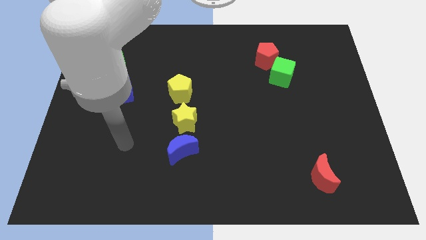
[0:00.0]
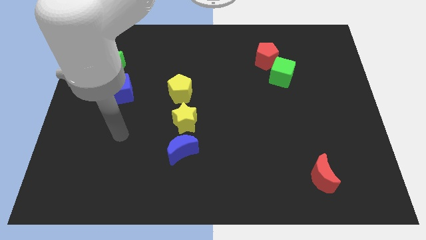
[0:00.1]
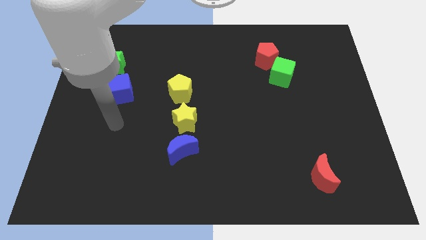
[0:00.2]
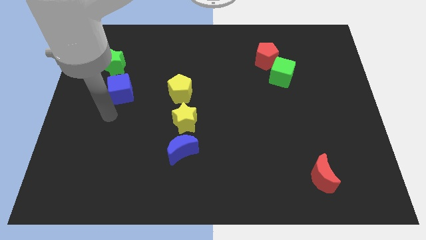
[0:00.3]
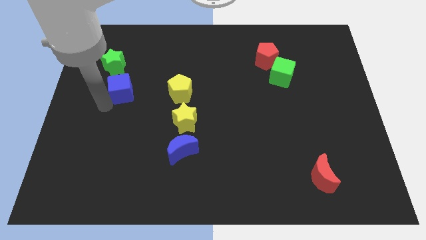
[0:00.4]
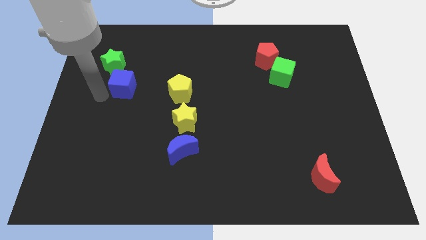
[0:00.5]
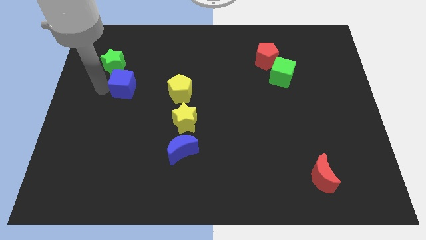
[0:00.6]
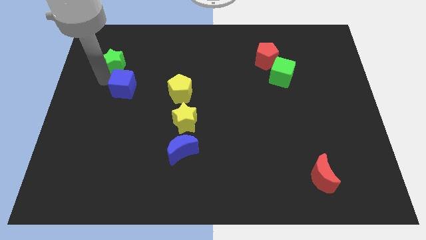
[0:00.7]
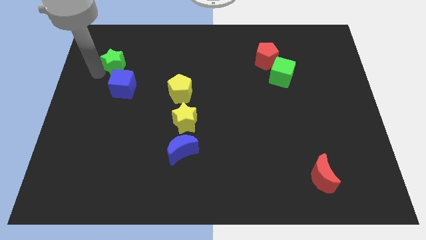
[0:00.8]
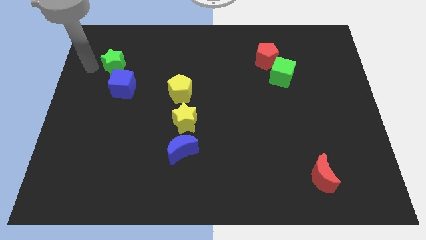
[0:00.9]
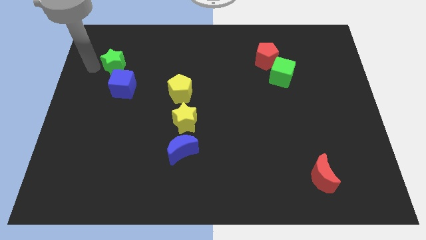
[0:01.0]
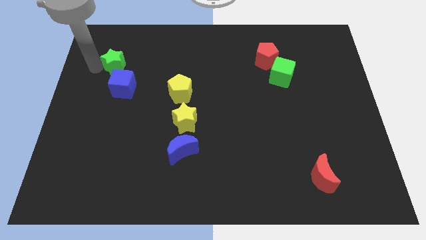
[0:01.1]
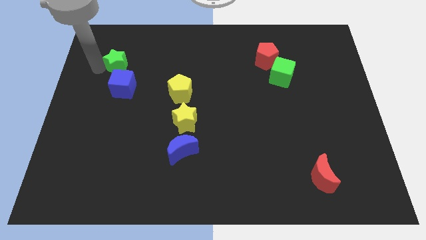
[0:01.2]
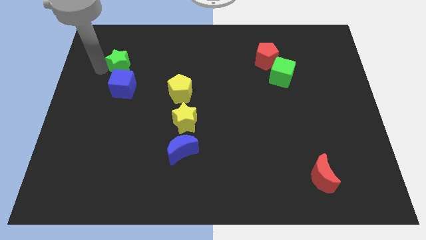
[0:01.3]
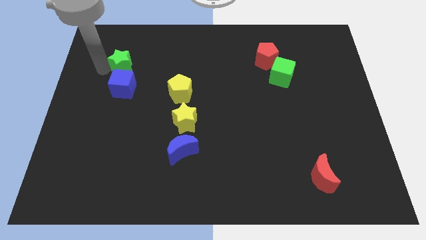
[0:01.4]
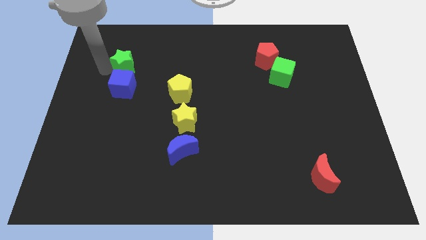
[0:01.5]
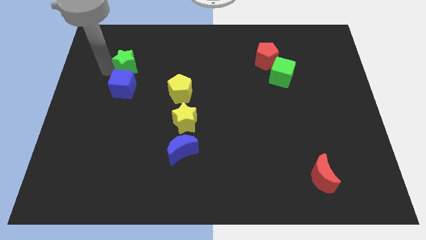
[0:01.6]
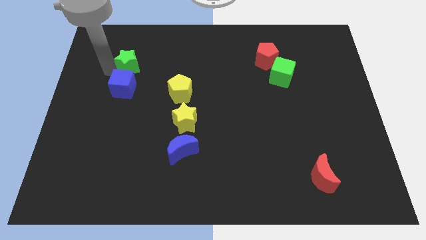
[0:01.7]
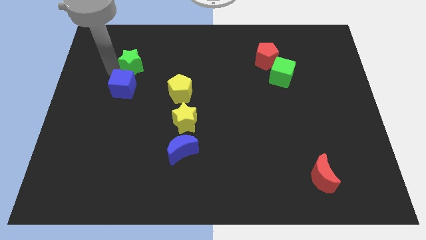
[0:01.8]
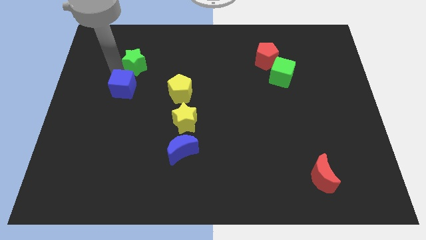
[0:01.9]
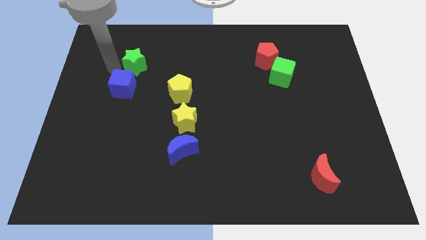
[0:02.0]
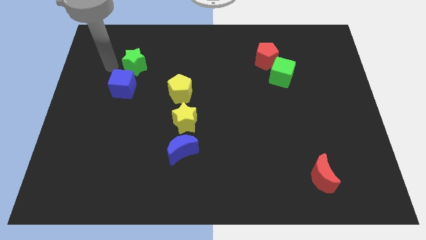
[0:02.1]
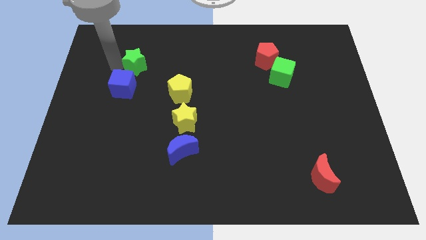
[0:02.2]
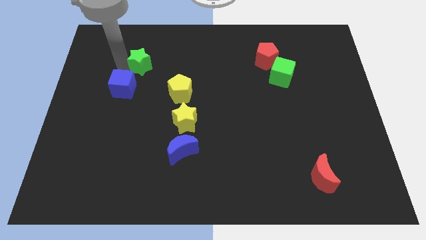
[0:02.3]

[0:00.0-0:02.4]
slide the green star to the right slightly

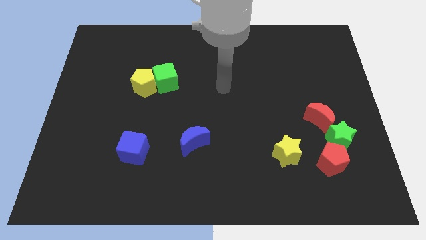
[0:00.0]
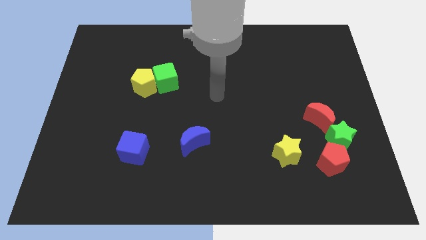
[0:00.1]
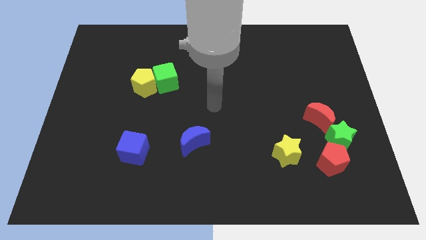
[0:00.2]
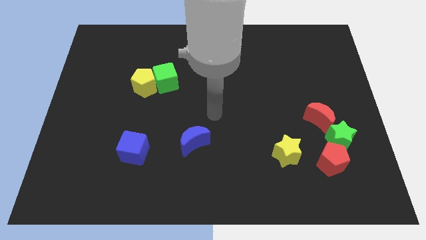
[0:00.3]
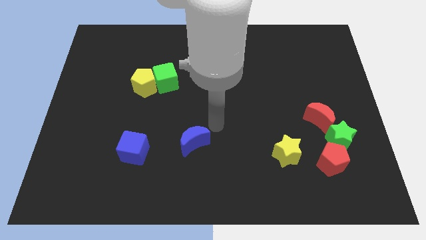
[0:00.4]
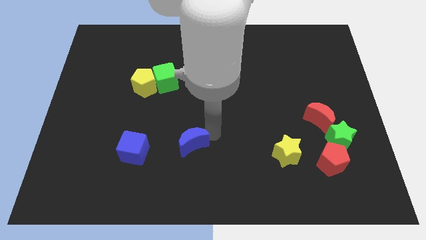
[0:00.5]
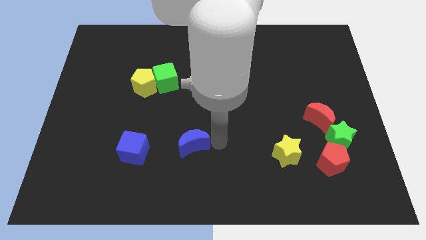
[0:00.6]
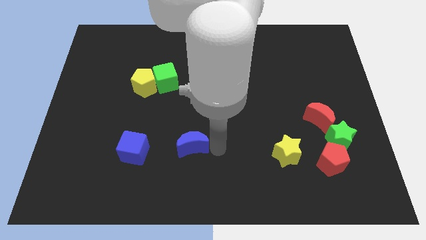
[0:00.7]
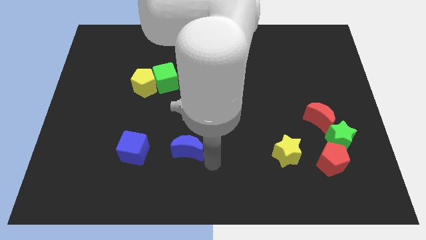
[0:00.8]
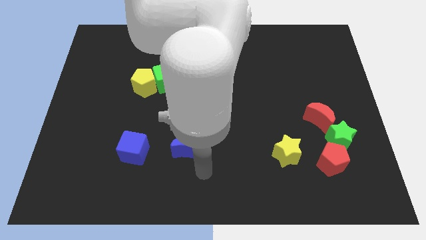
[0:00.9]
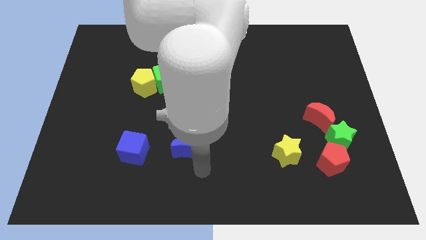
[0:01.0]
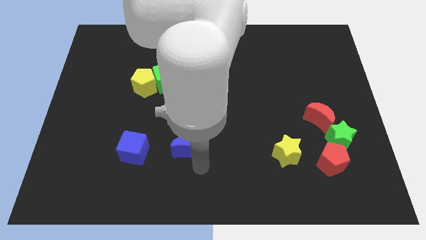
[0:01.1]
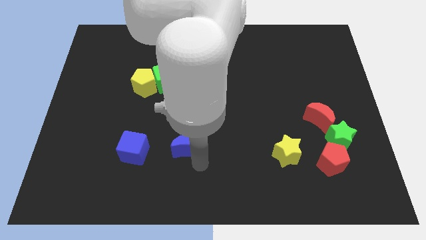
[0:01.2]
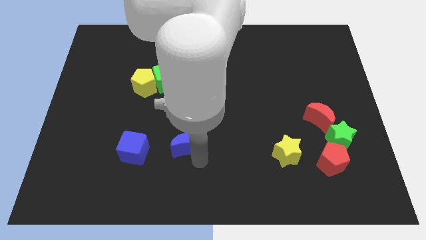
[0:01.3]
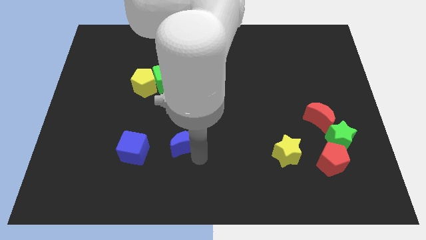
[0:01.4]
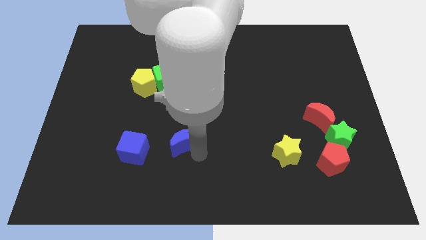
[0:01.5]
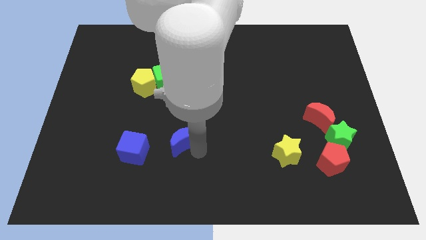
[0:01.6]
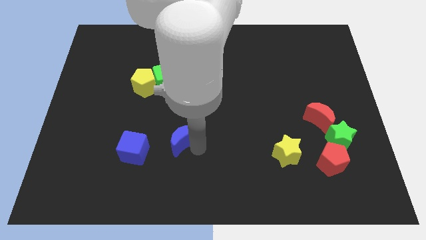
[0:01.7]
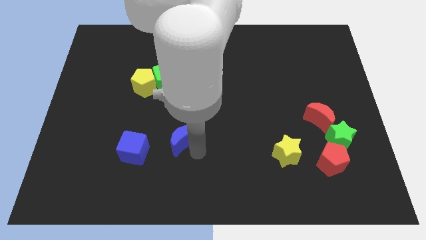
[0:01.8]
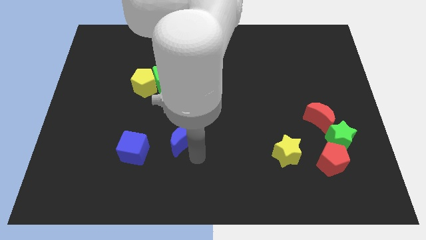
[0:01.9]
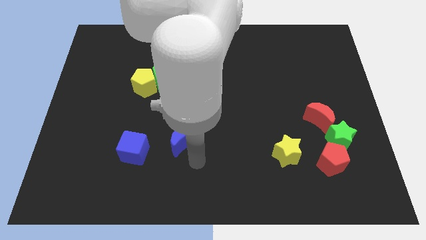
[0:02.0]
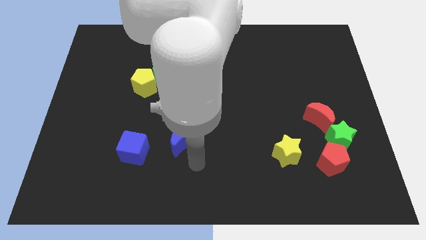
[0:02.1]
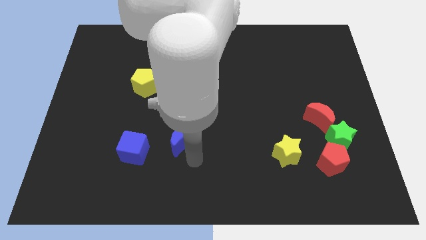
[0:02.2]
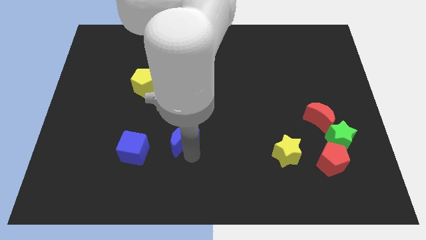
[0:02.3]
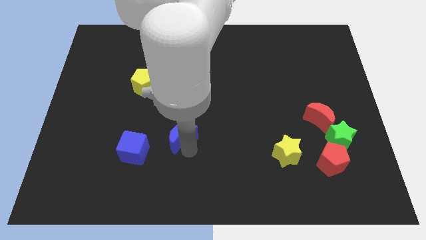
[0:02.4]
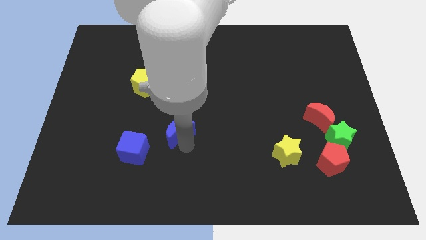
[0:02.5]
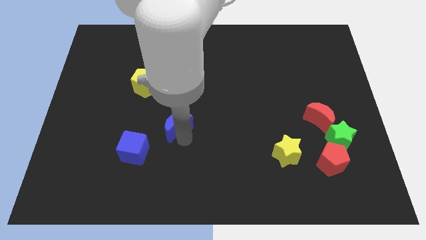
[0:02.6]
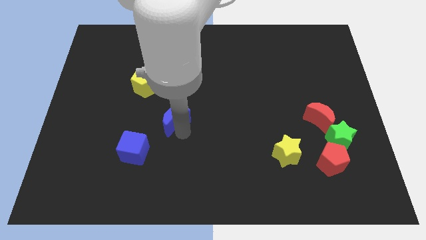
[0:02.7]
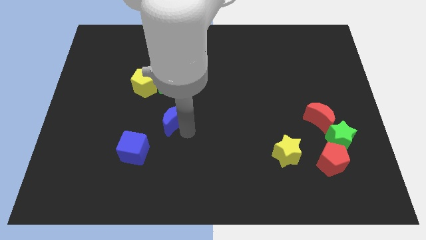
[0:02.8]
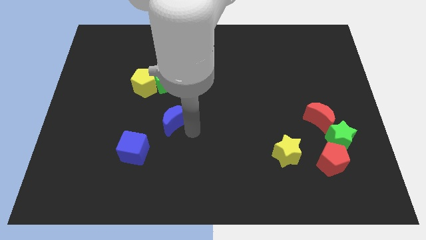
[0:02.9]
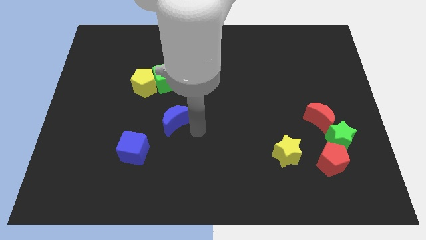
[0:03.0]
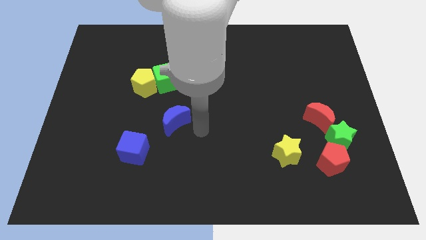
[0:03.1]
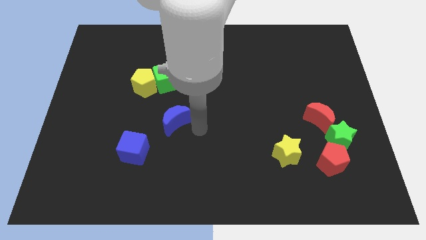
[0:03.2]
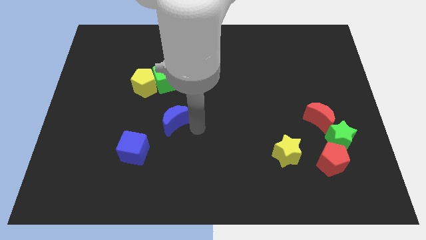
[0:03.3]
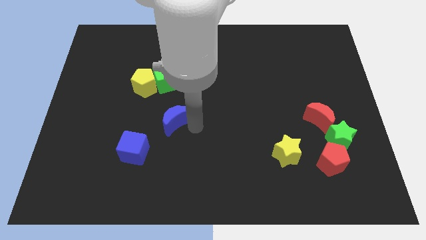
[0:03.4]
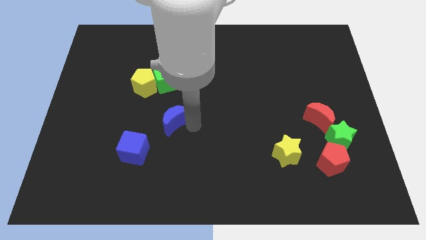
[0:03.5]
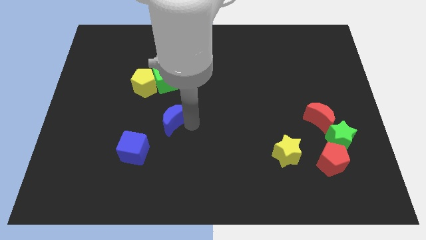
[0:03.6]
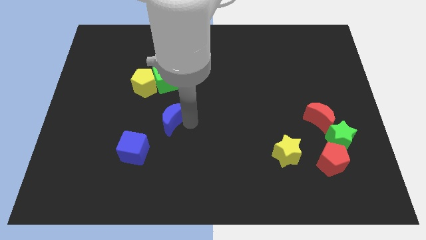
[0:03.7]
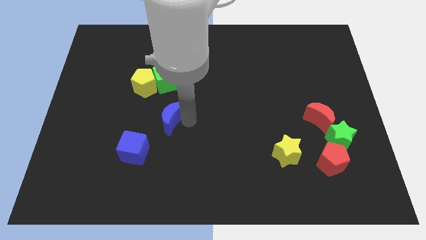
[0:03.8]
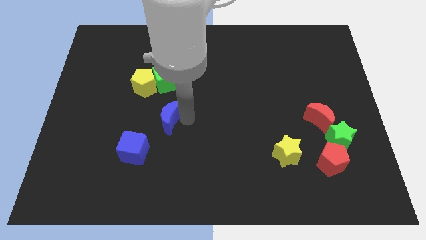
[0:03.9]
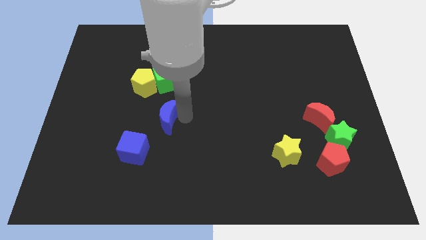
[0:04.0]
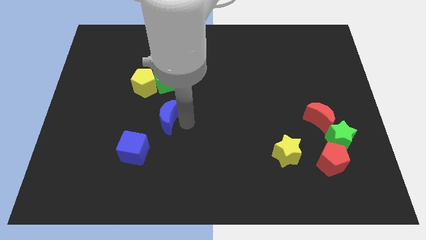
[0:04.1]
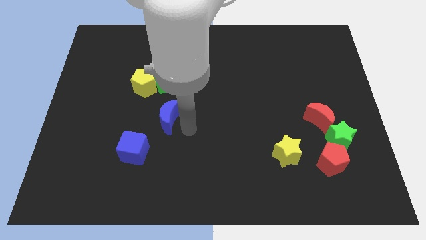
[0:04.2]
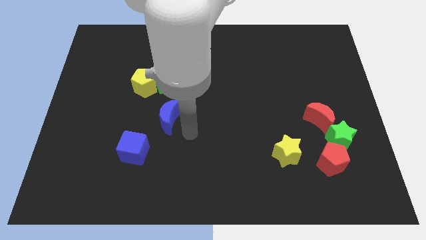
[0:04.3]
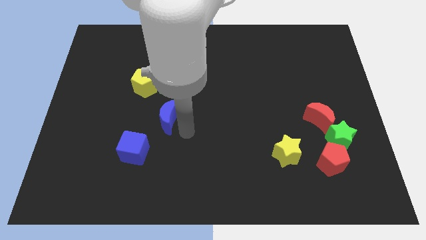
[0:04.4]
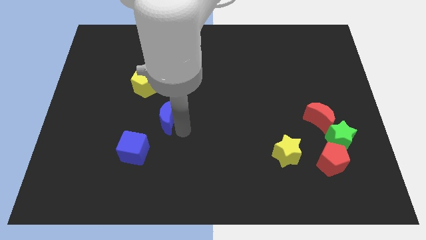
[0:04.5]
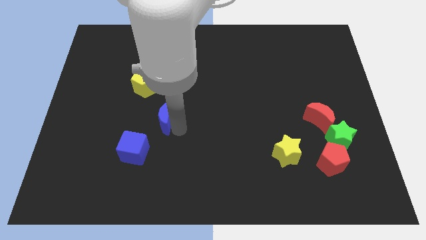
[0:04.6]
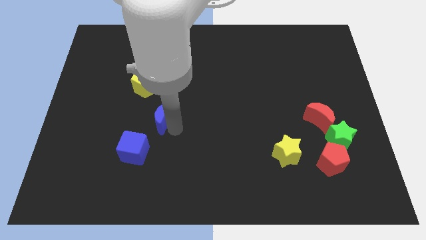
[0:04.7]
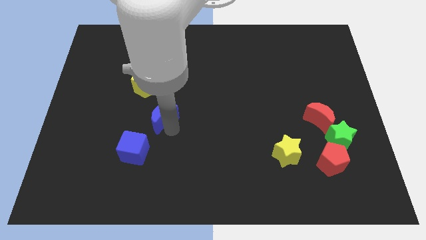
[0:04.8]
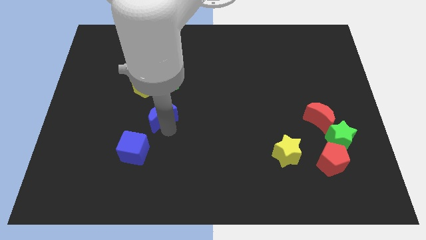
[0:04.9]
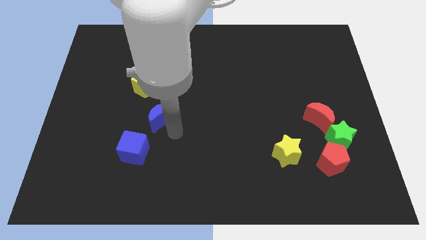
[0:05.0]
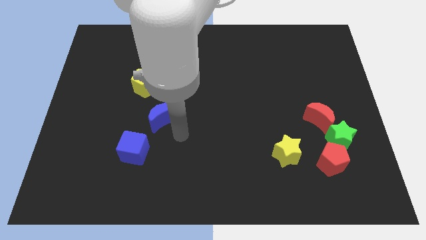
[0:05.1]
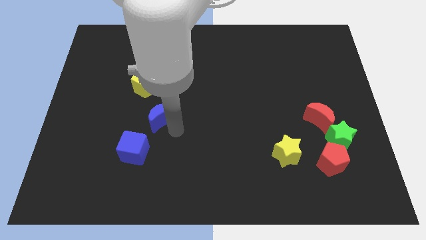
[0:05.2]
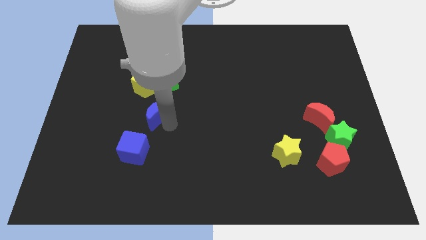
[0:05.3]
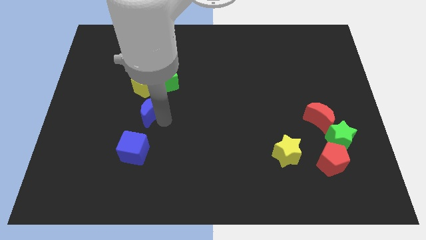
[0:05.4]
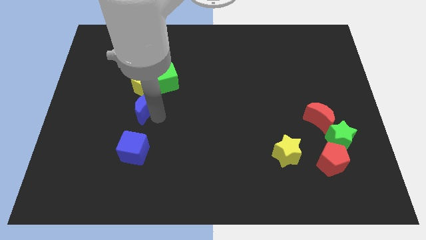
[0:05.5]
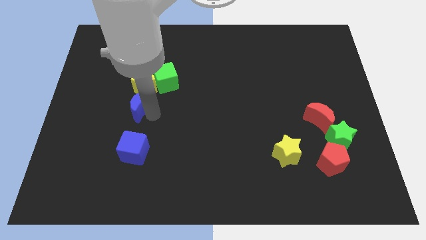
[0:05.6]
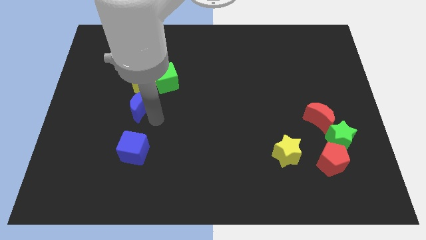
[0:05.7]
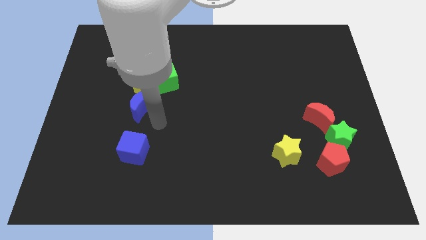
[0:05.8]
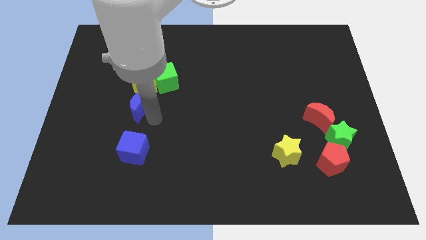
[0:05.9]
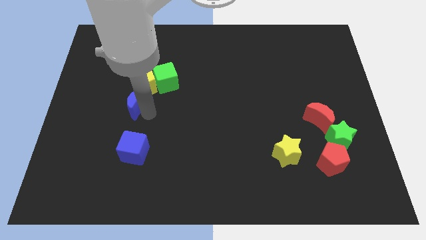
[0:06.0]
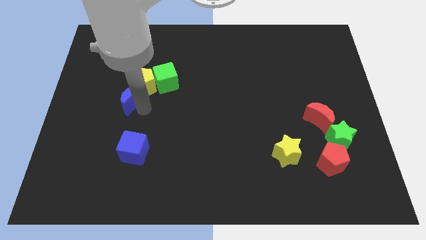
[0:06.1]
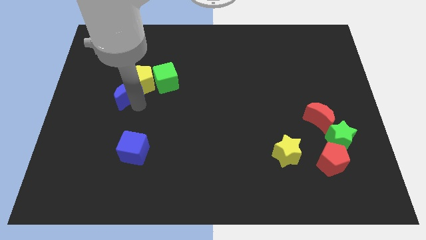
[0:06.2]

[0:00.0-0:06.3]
move the blue moon upwards and then left
